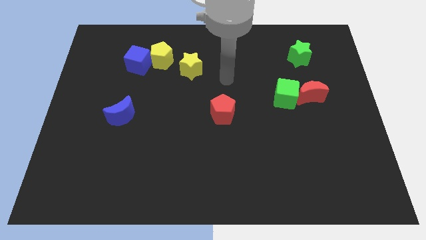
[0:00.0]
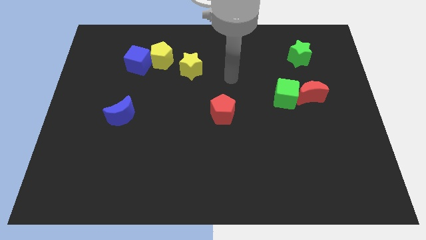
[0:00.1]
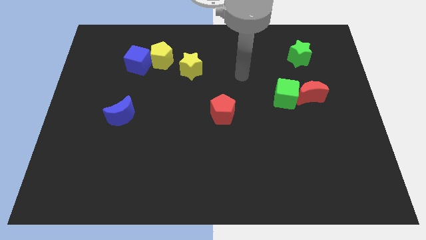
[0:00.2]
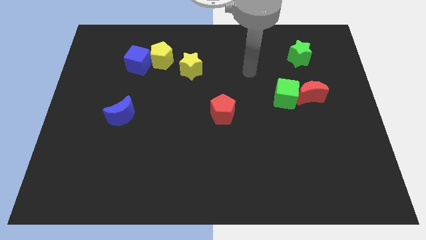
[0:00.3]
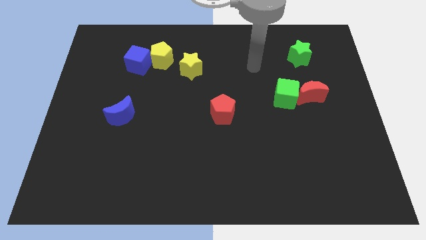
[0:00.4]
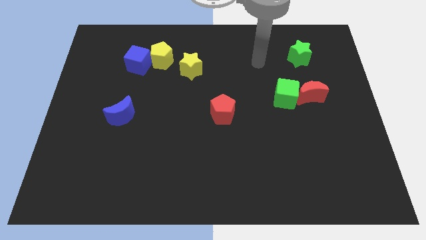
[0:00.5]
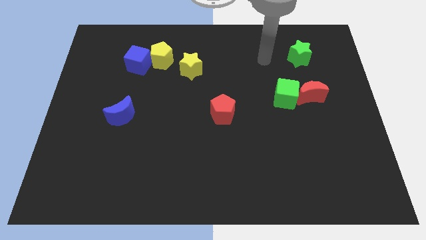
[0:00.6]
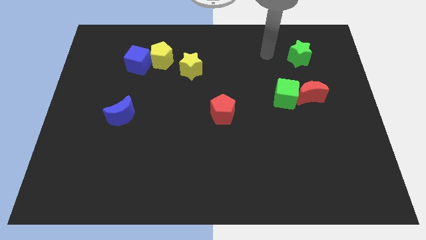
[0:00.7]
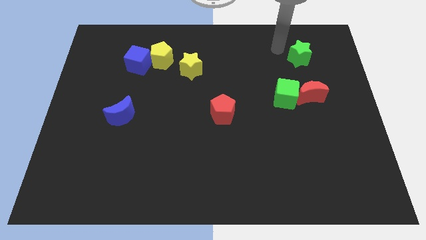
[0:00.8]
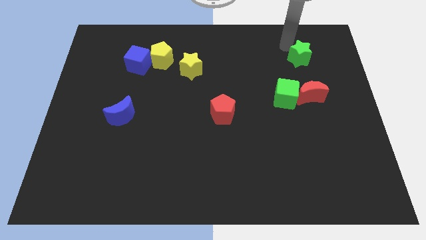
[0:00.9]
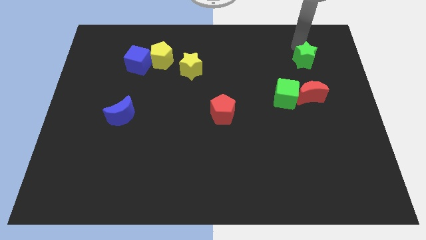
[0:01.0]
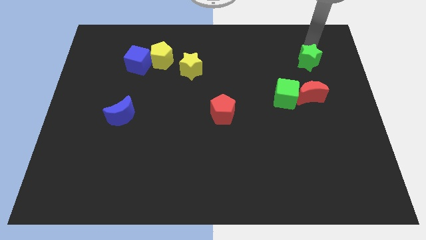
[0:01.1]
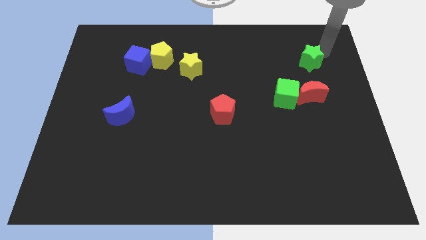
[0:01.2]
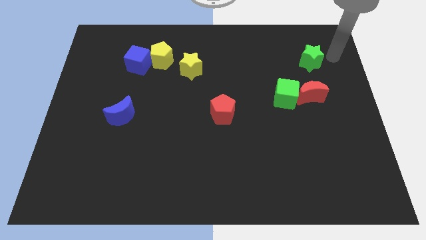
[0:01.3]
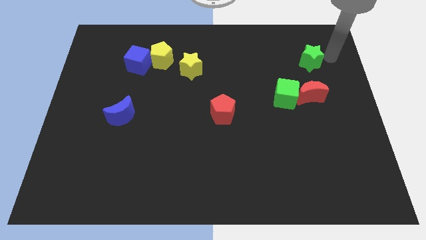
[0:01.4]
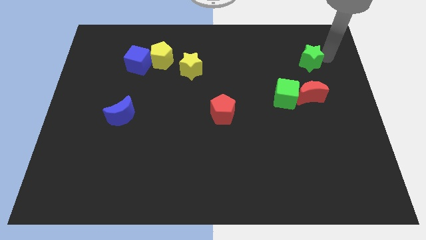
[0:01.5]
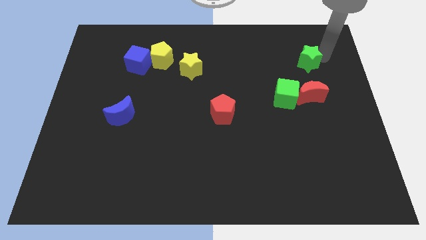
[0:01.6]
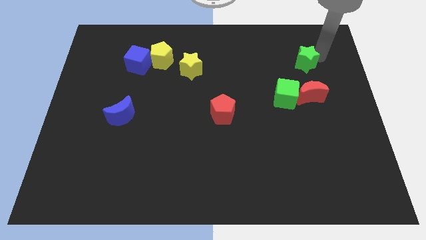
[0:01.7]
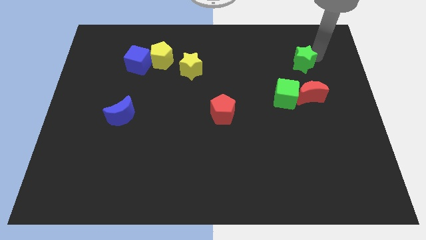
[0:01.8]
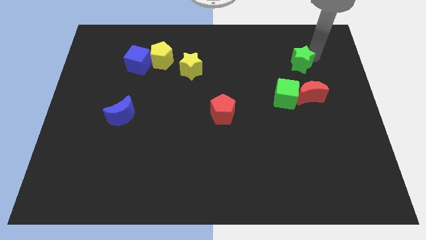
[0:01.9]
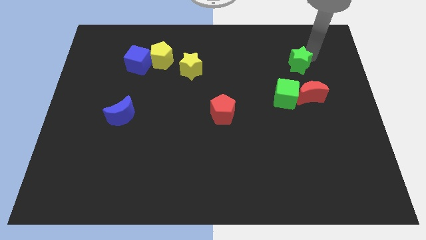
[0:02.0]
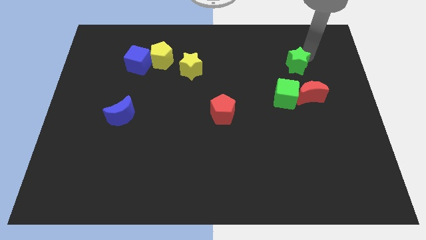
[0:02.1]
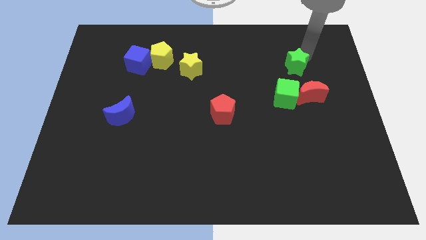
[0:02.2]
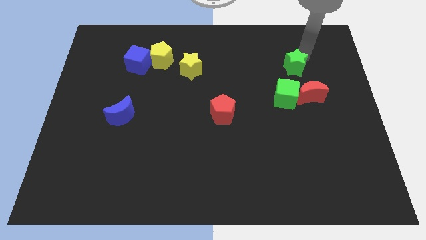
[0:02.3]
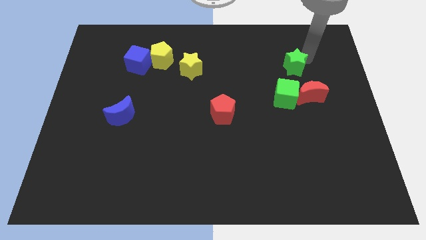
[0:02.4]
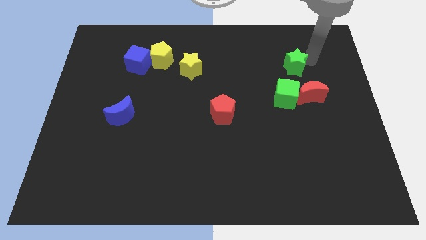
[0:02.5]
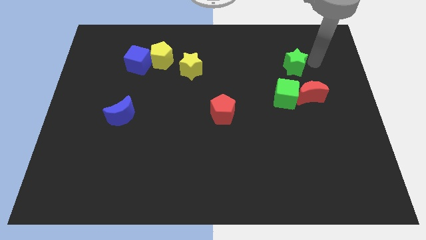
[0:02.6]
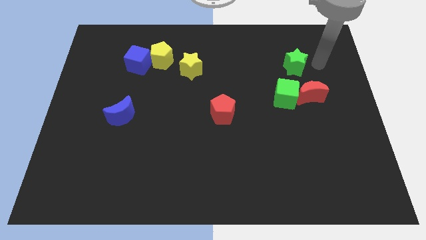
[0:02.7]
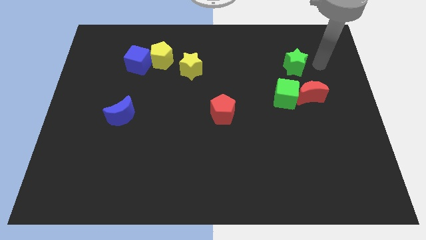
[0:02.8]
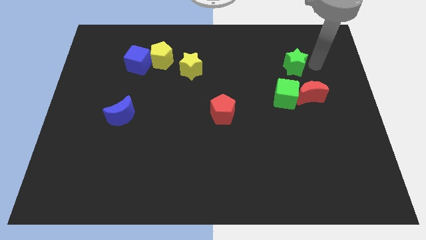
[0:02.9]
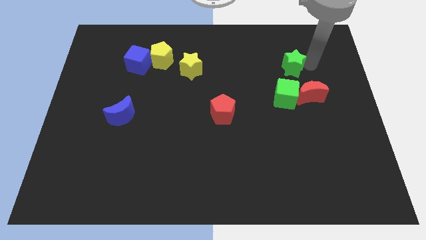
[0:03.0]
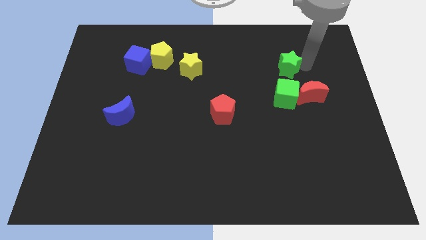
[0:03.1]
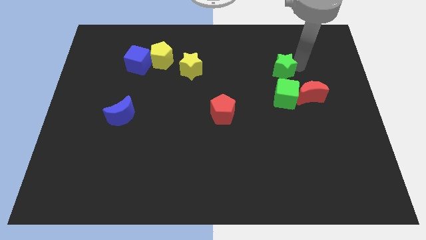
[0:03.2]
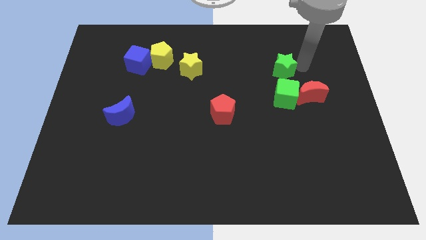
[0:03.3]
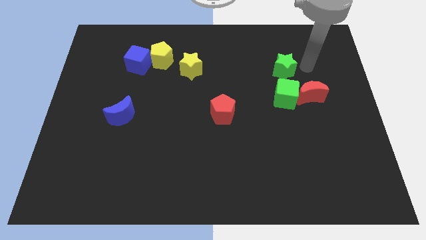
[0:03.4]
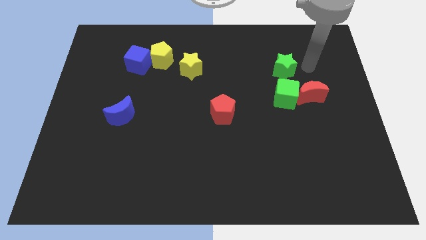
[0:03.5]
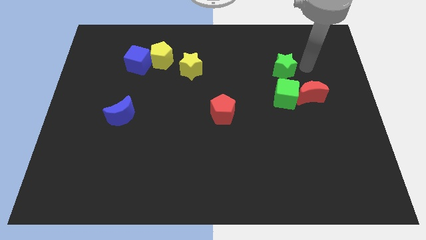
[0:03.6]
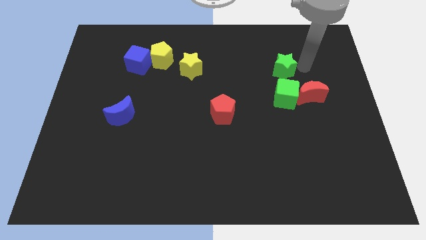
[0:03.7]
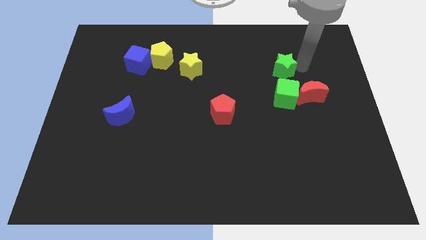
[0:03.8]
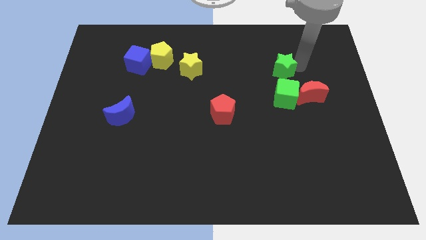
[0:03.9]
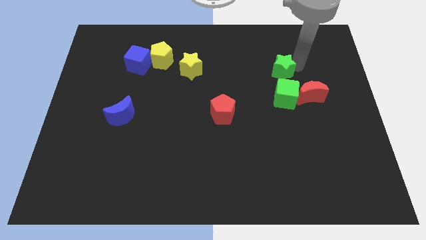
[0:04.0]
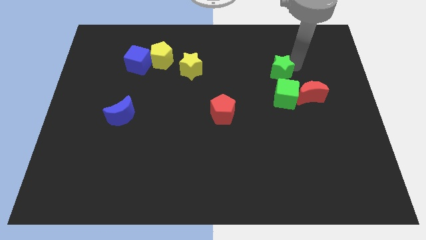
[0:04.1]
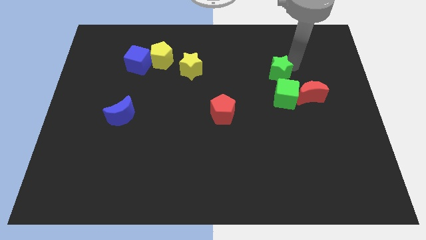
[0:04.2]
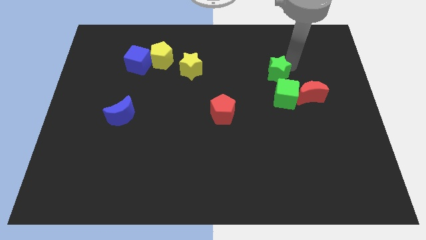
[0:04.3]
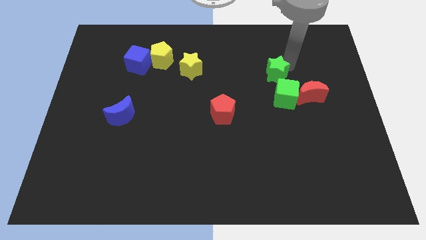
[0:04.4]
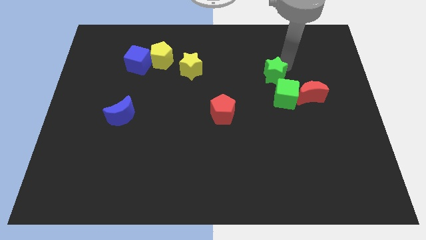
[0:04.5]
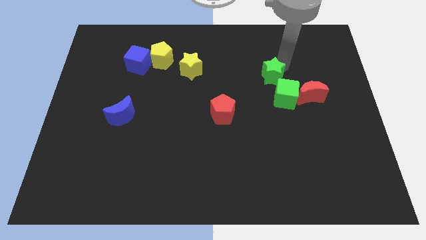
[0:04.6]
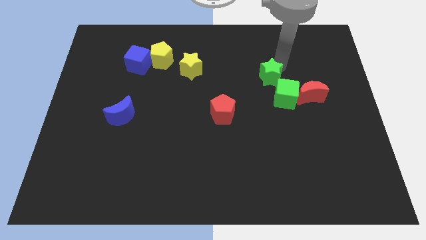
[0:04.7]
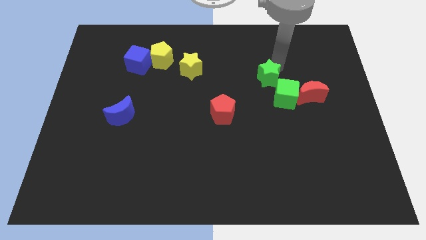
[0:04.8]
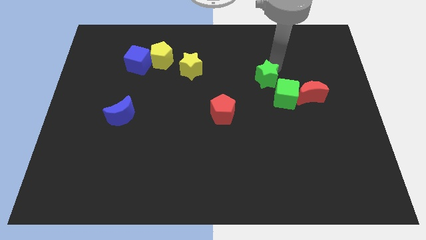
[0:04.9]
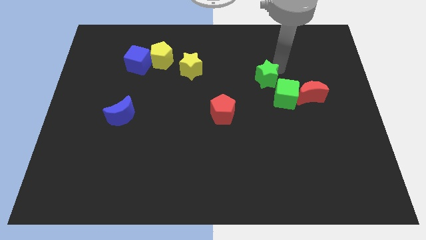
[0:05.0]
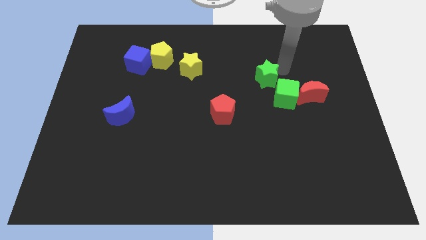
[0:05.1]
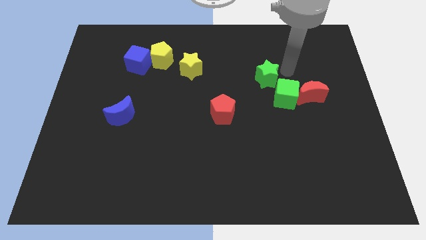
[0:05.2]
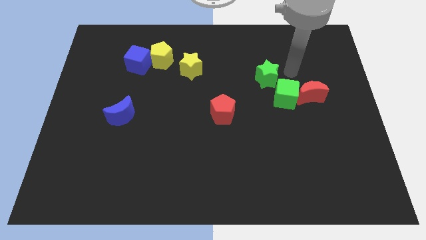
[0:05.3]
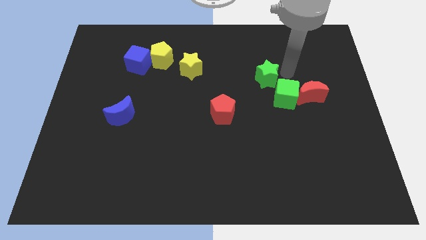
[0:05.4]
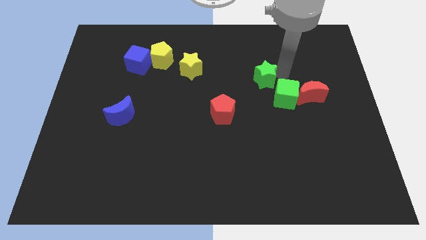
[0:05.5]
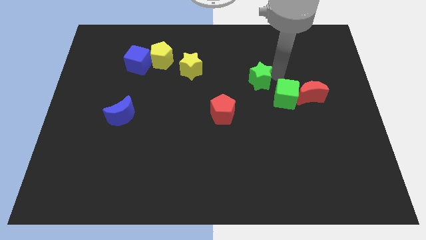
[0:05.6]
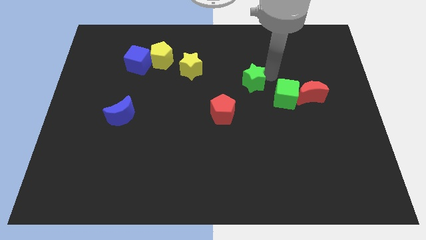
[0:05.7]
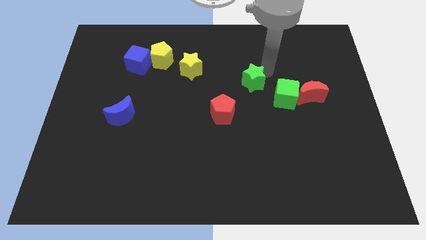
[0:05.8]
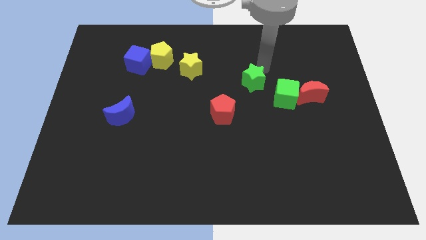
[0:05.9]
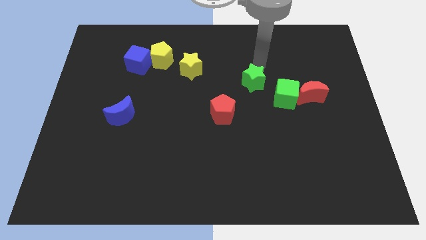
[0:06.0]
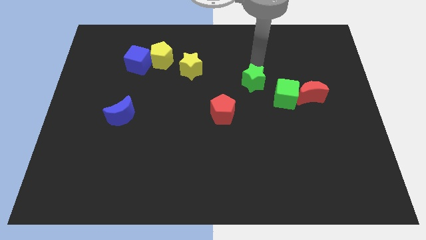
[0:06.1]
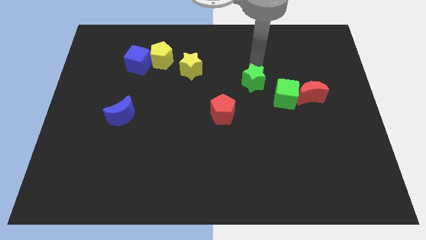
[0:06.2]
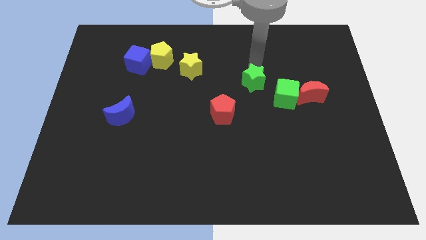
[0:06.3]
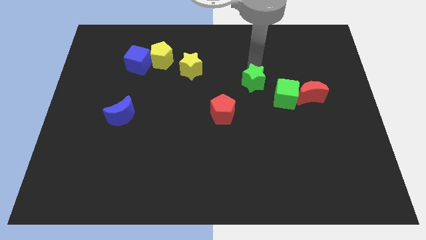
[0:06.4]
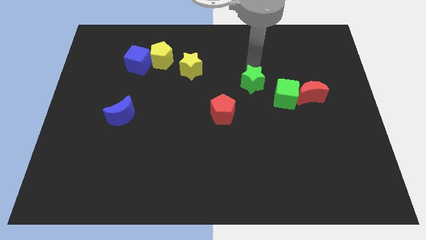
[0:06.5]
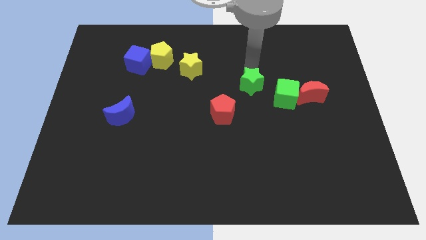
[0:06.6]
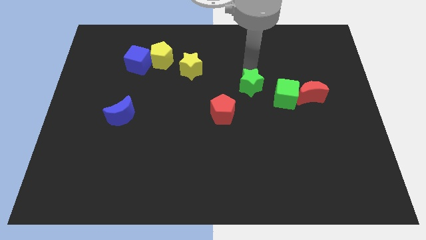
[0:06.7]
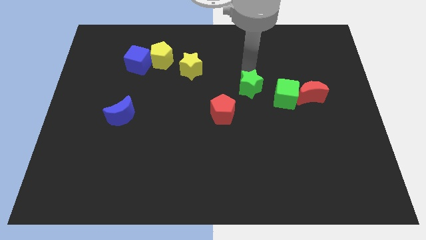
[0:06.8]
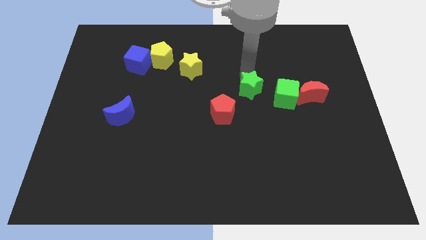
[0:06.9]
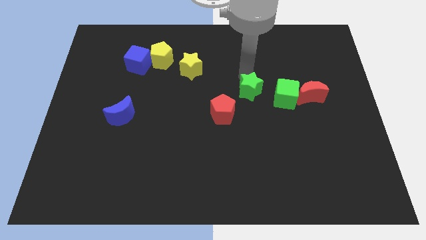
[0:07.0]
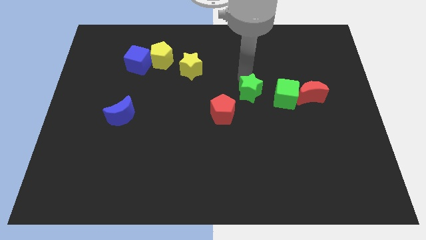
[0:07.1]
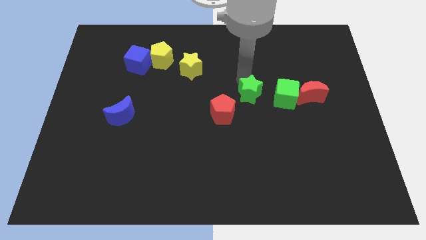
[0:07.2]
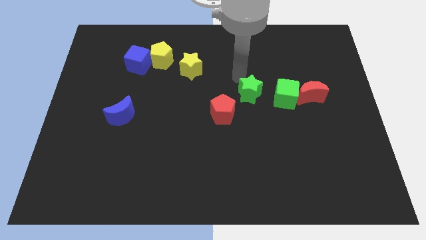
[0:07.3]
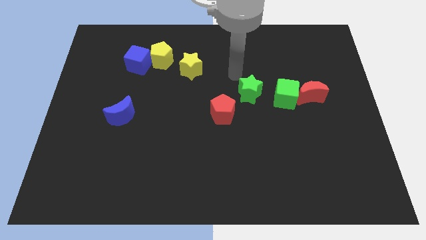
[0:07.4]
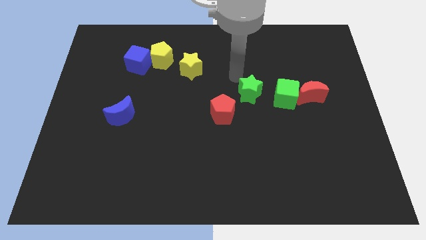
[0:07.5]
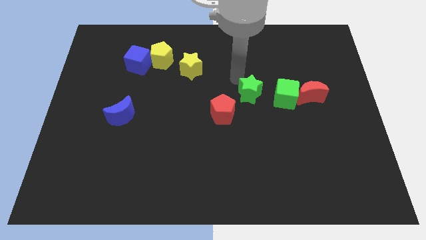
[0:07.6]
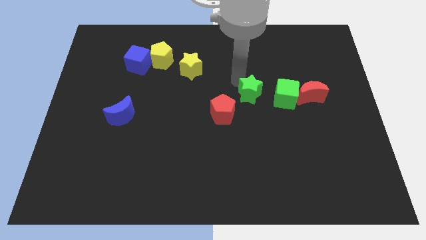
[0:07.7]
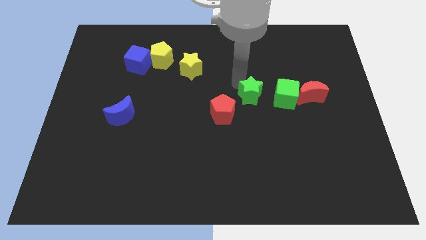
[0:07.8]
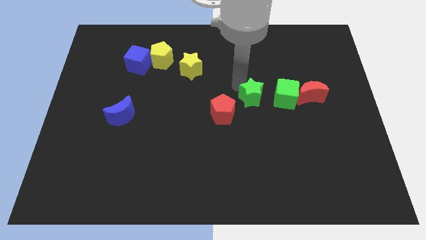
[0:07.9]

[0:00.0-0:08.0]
push the green star to the right side of the red pentagon
